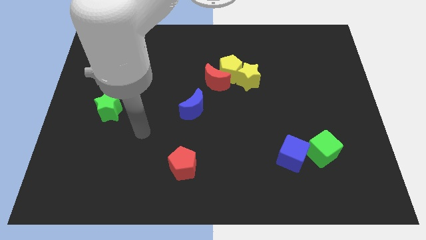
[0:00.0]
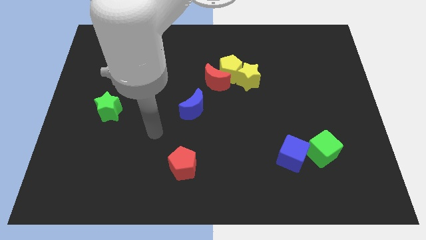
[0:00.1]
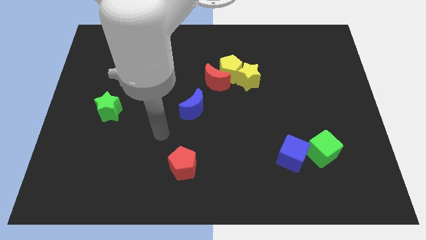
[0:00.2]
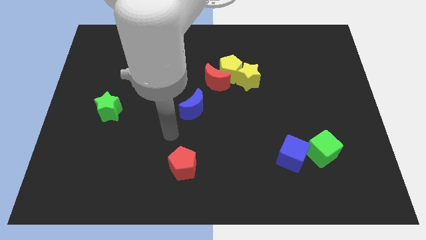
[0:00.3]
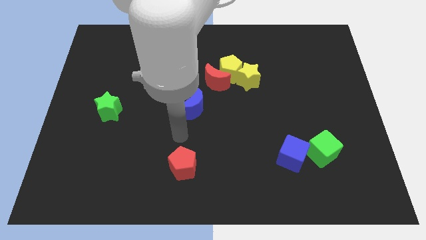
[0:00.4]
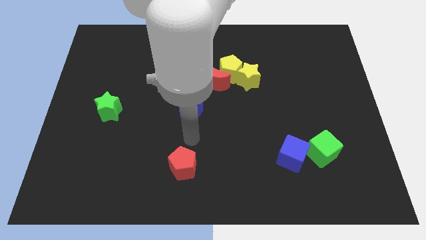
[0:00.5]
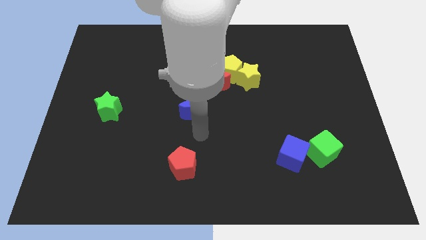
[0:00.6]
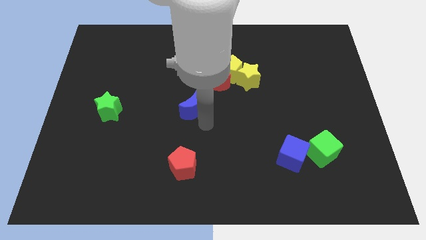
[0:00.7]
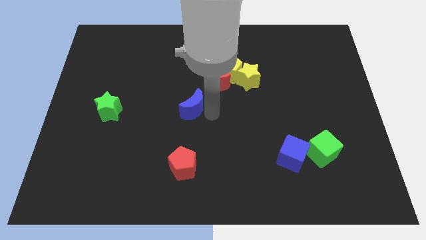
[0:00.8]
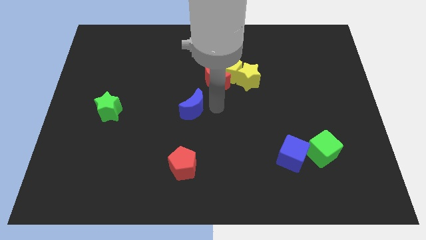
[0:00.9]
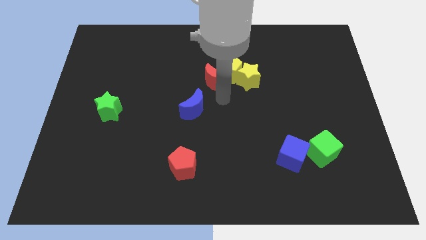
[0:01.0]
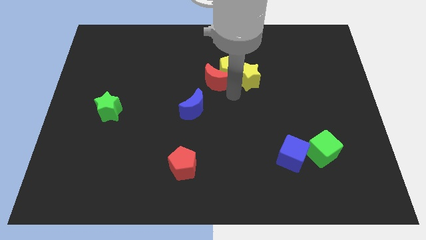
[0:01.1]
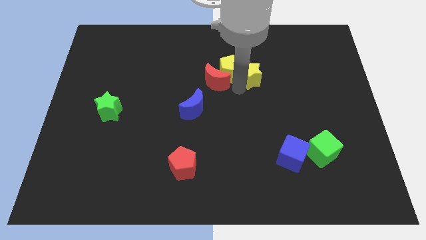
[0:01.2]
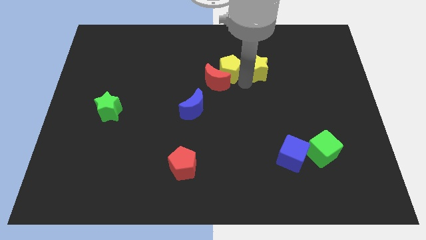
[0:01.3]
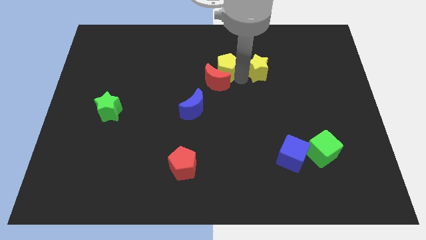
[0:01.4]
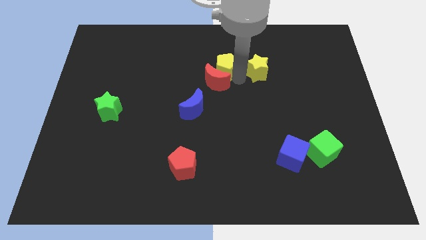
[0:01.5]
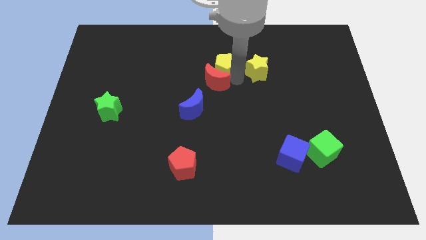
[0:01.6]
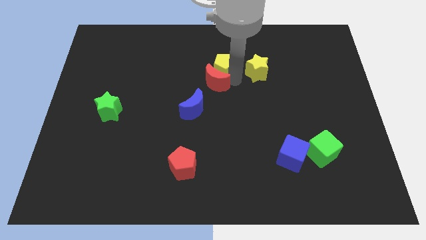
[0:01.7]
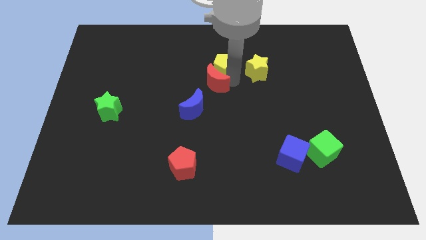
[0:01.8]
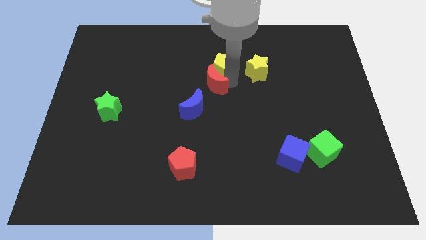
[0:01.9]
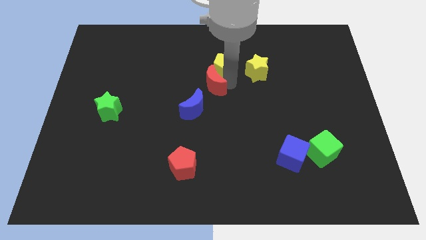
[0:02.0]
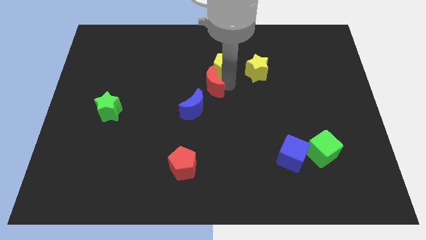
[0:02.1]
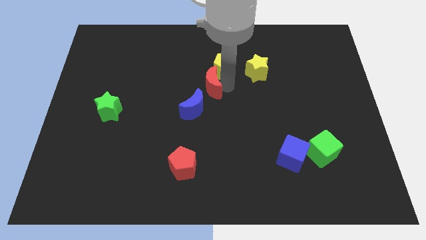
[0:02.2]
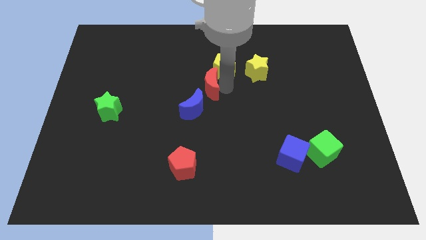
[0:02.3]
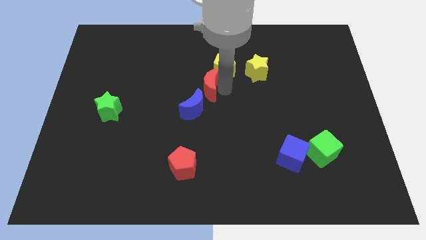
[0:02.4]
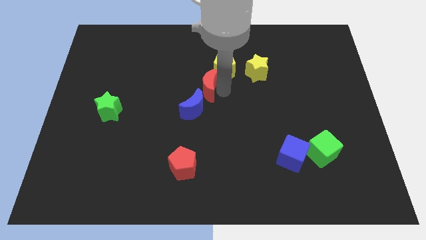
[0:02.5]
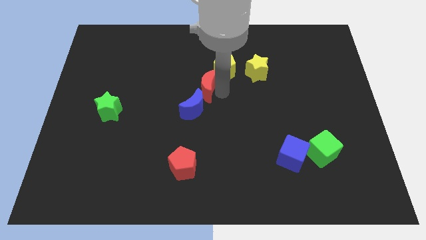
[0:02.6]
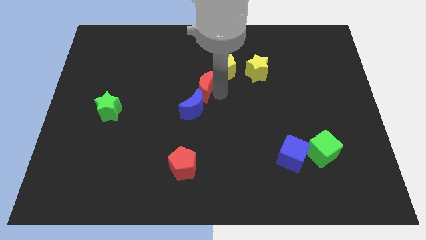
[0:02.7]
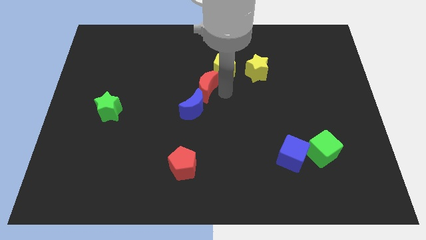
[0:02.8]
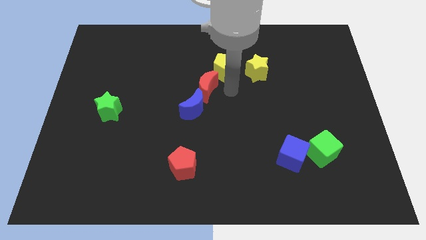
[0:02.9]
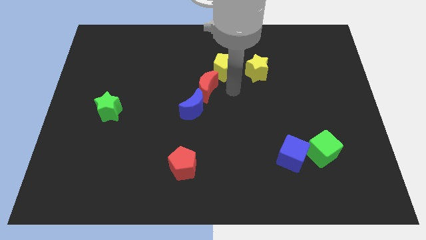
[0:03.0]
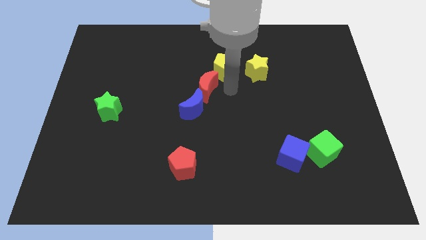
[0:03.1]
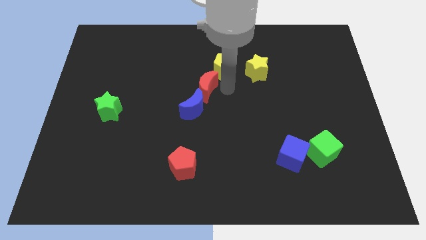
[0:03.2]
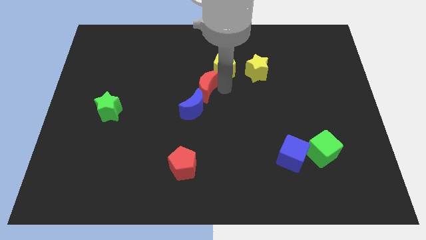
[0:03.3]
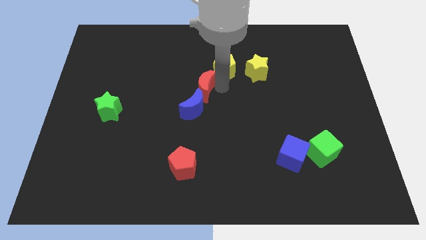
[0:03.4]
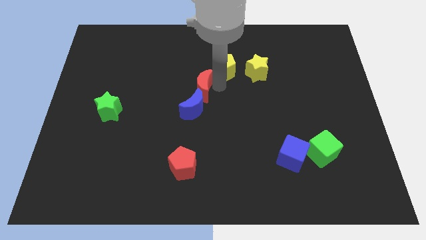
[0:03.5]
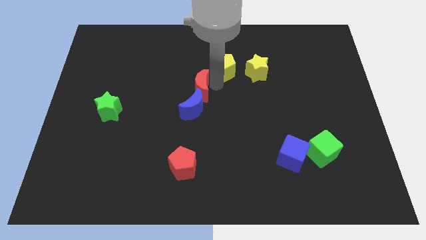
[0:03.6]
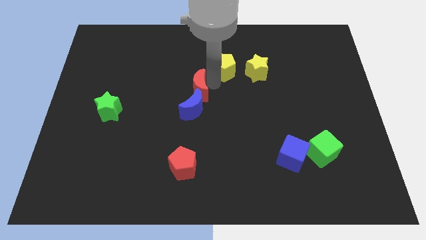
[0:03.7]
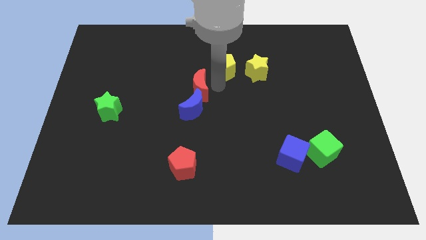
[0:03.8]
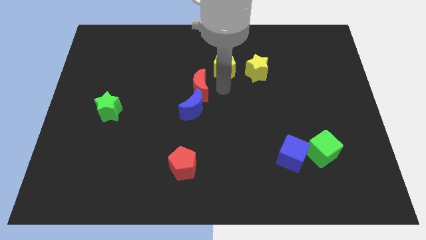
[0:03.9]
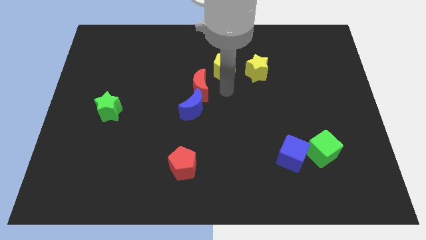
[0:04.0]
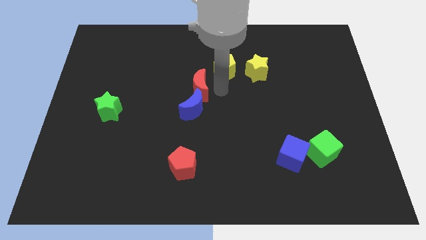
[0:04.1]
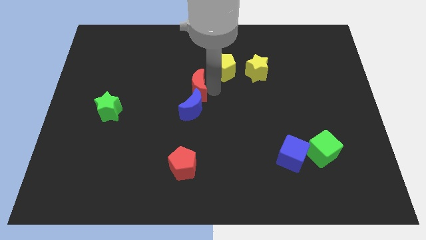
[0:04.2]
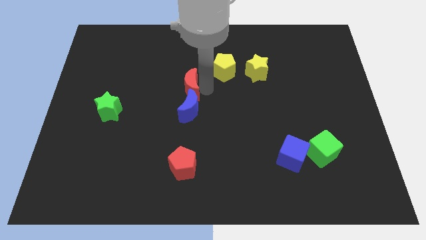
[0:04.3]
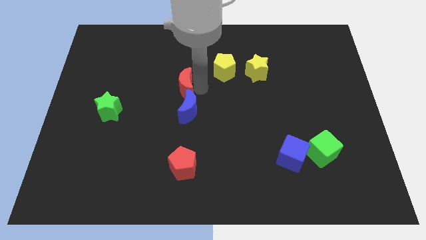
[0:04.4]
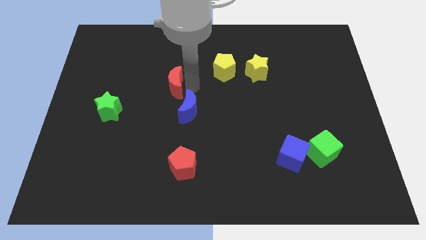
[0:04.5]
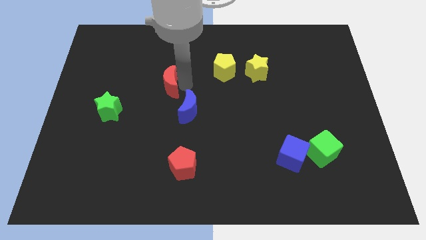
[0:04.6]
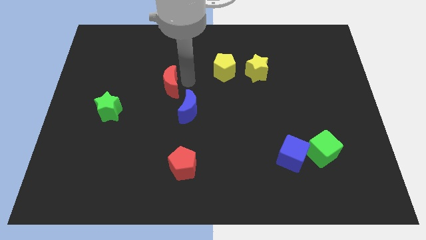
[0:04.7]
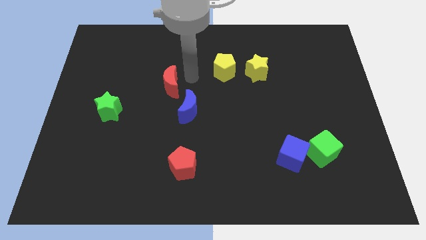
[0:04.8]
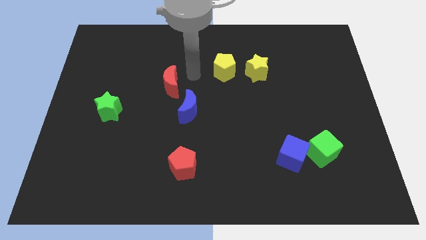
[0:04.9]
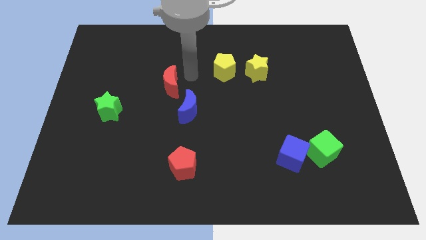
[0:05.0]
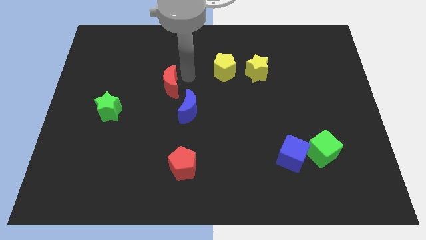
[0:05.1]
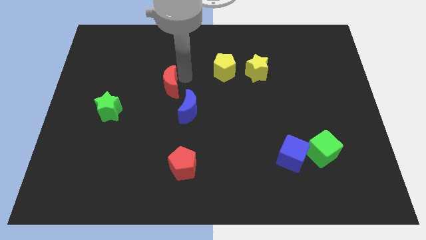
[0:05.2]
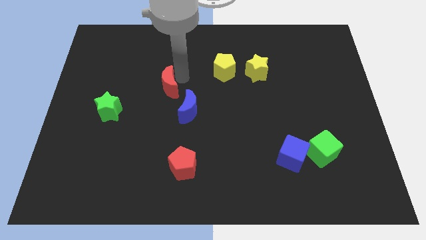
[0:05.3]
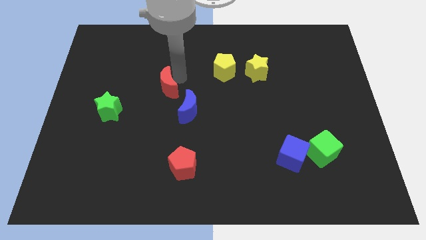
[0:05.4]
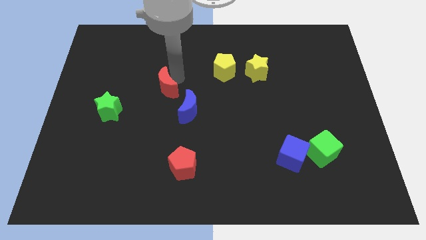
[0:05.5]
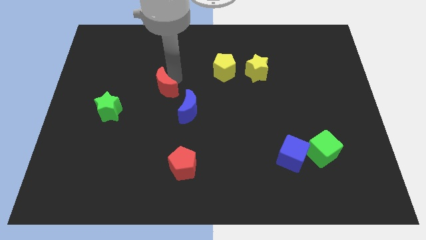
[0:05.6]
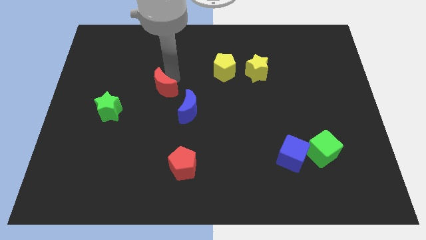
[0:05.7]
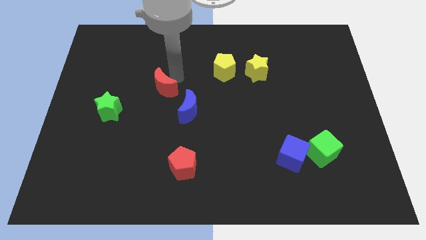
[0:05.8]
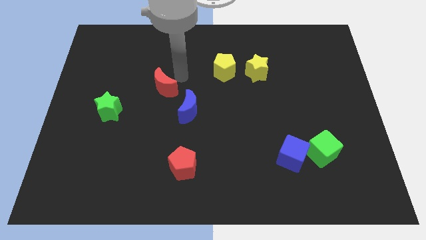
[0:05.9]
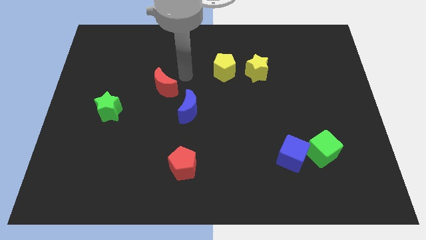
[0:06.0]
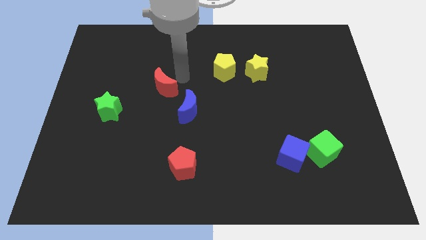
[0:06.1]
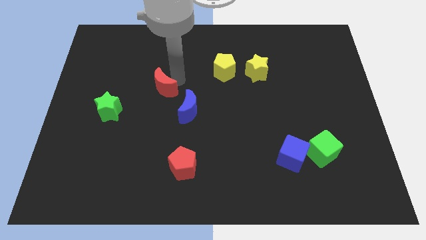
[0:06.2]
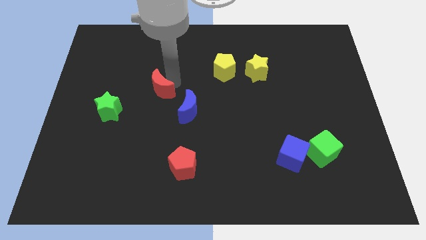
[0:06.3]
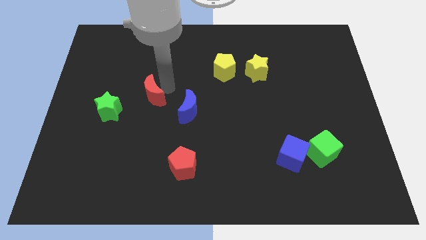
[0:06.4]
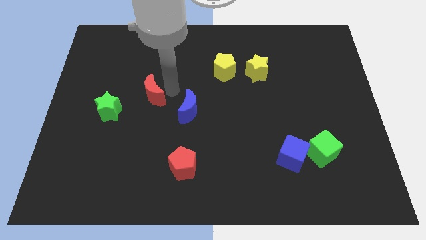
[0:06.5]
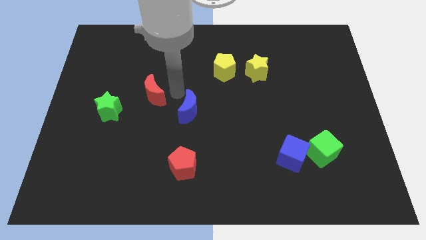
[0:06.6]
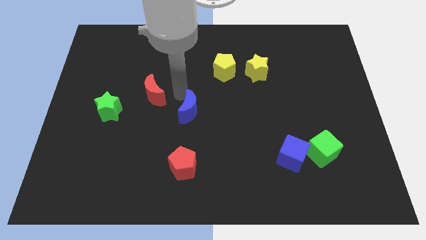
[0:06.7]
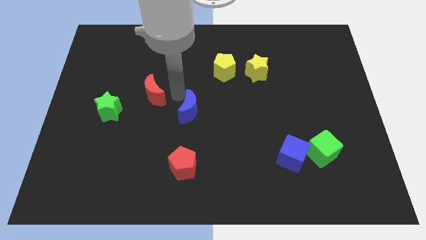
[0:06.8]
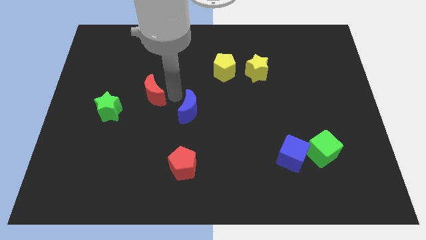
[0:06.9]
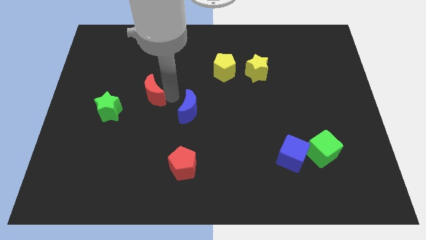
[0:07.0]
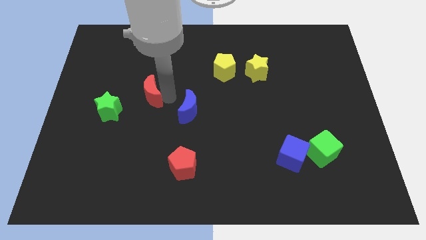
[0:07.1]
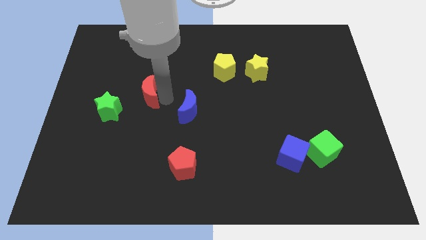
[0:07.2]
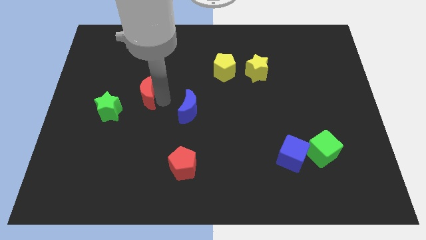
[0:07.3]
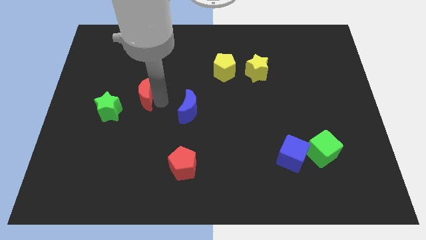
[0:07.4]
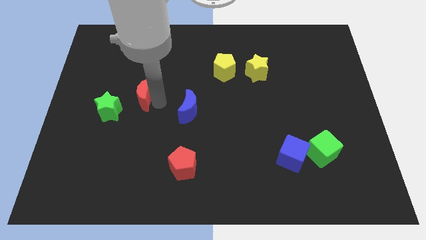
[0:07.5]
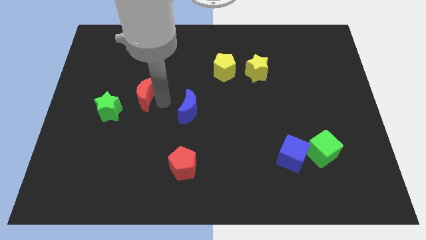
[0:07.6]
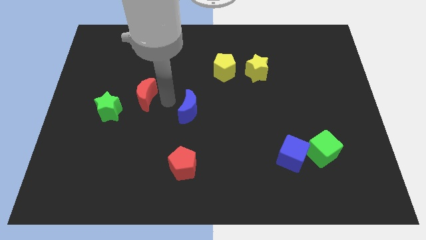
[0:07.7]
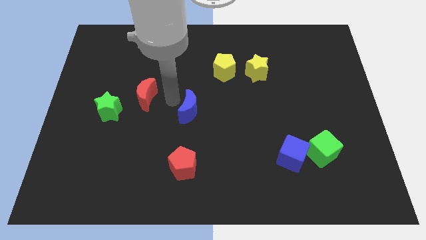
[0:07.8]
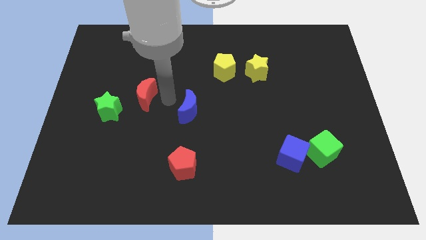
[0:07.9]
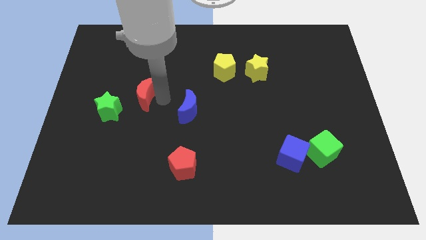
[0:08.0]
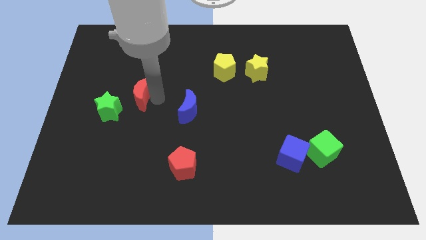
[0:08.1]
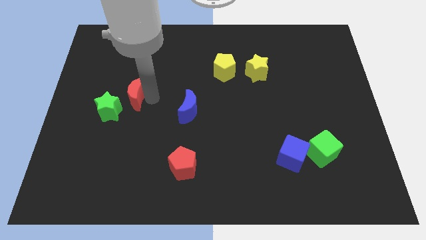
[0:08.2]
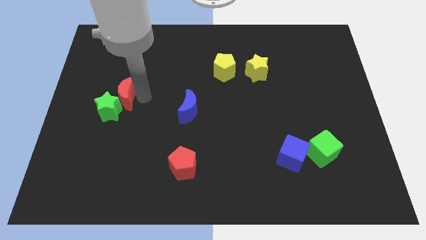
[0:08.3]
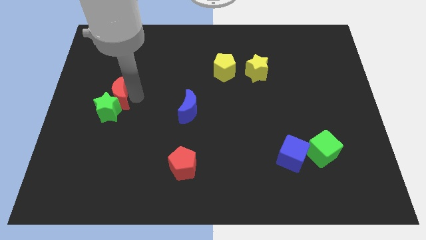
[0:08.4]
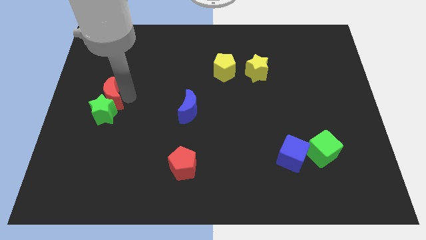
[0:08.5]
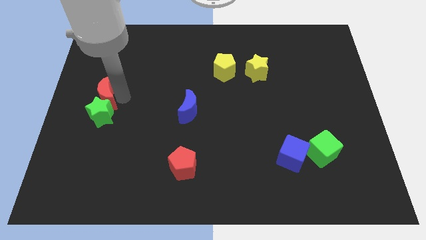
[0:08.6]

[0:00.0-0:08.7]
slide the red moon to the center left
